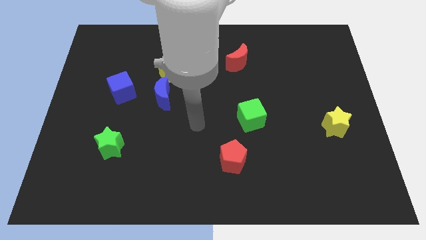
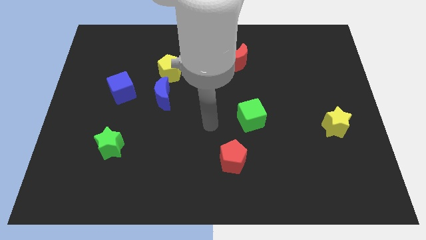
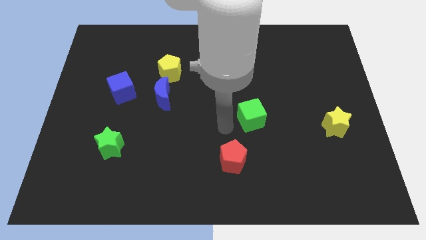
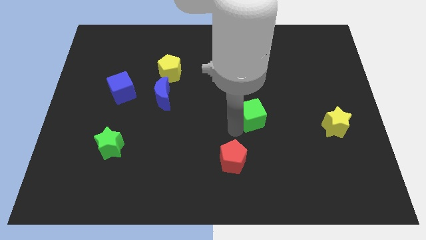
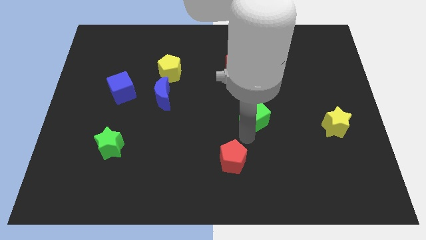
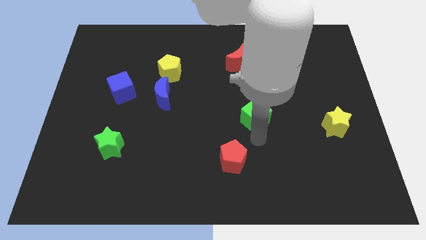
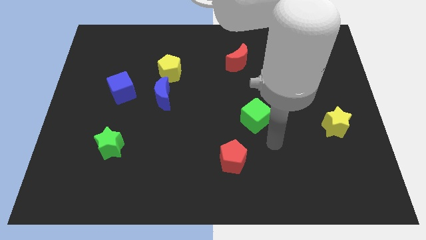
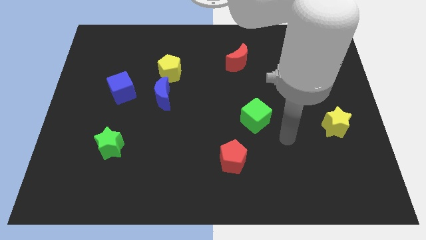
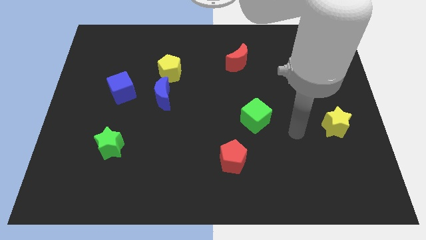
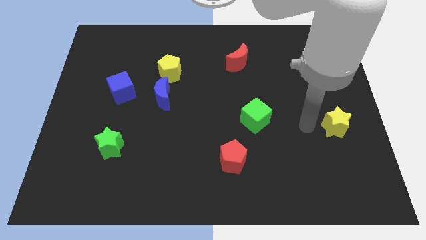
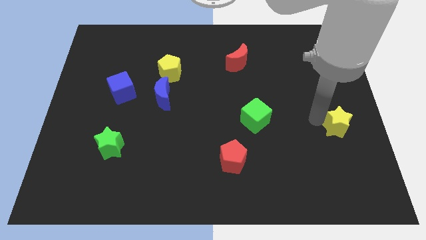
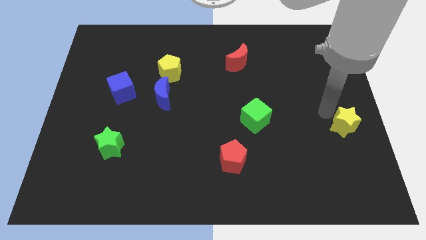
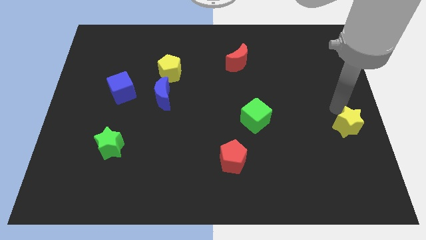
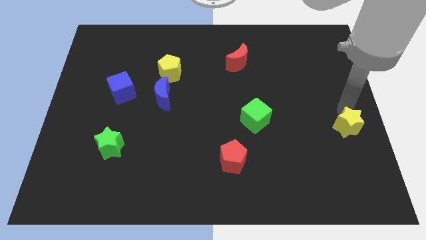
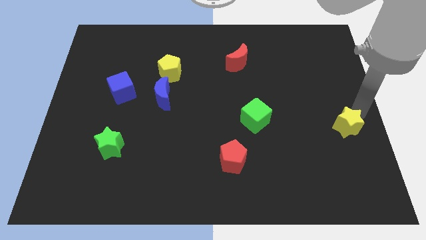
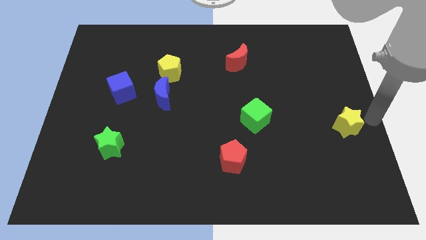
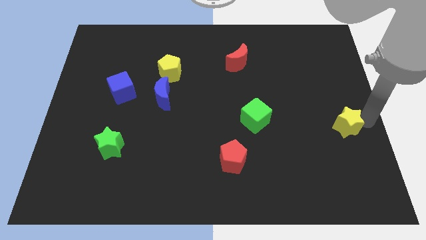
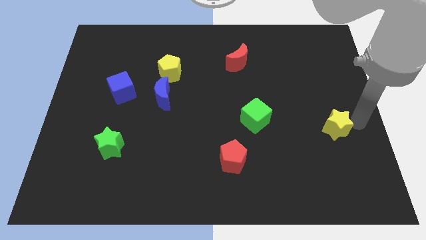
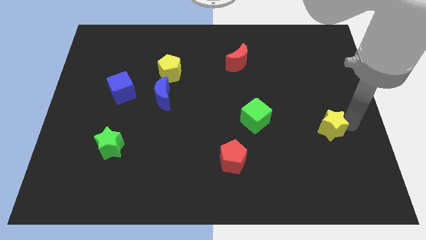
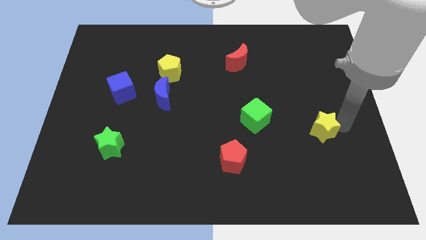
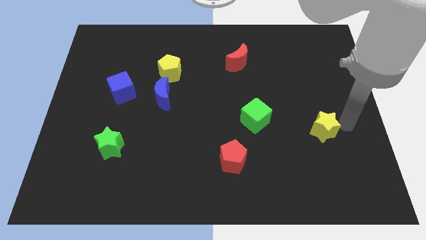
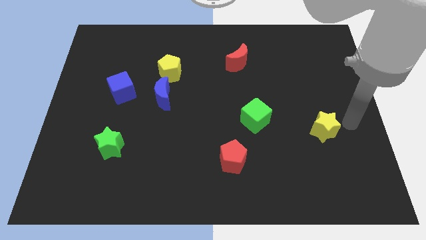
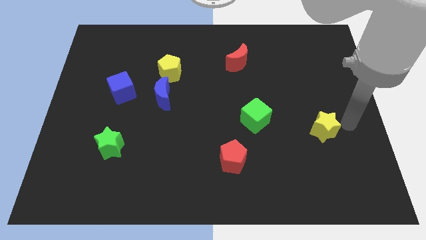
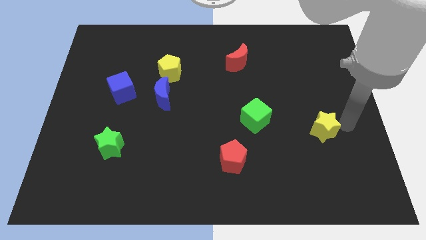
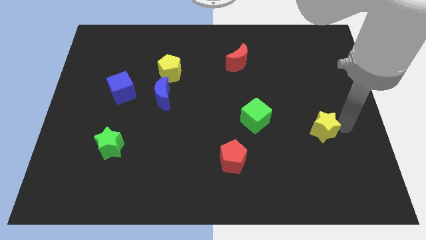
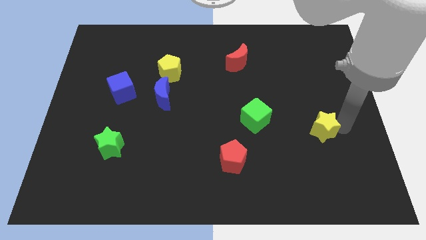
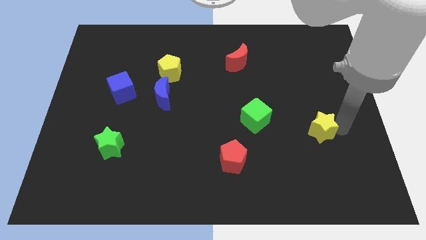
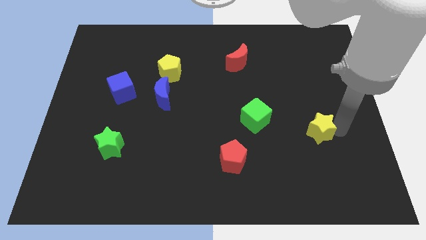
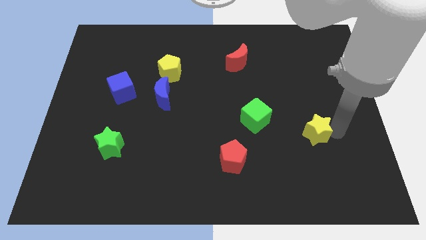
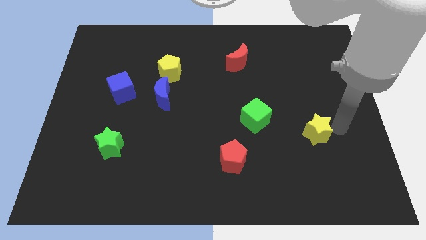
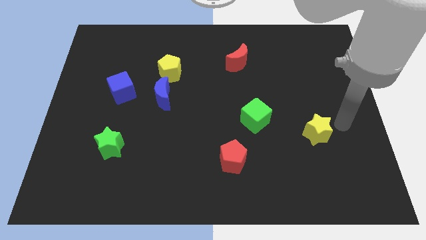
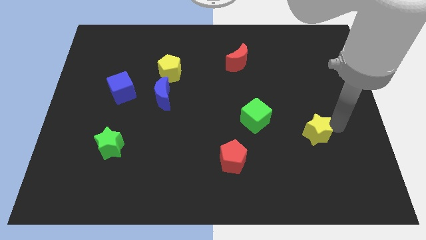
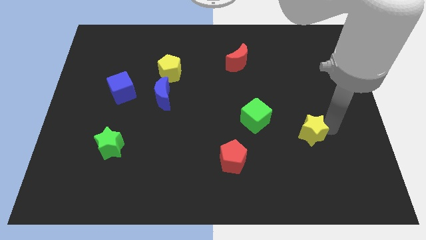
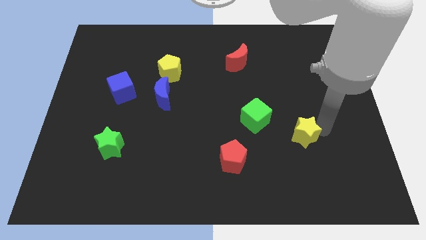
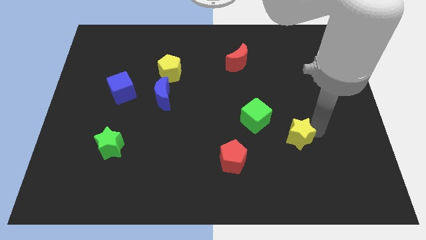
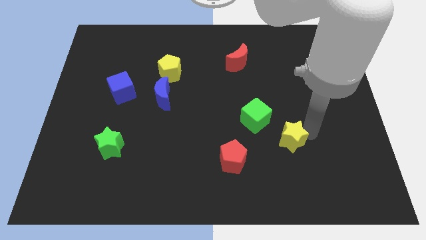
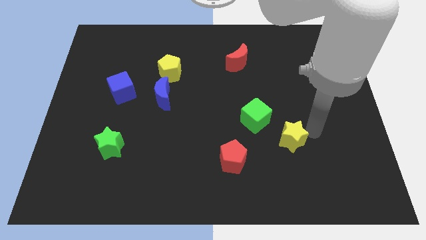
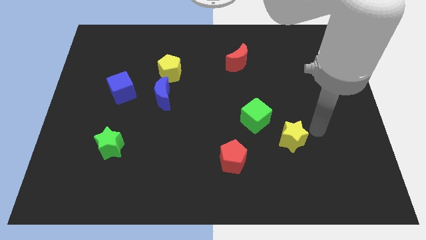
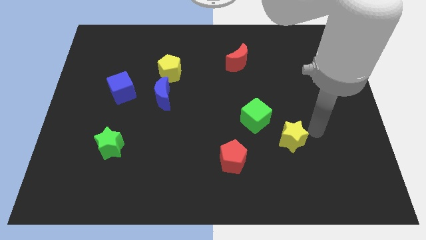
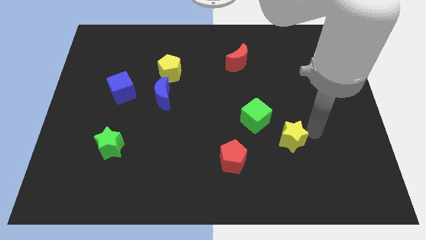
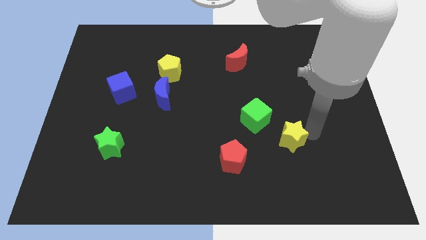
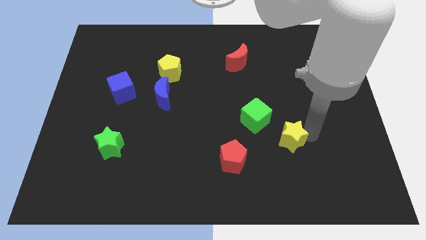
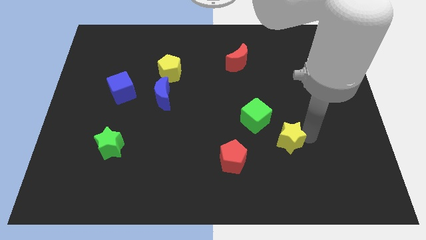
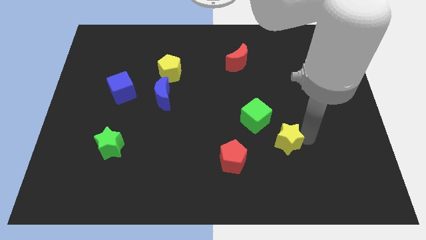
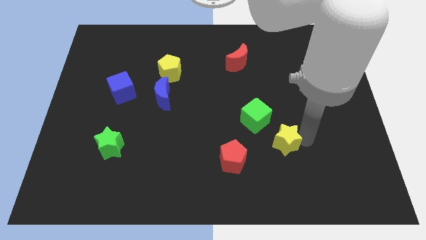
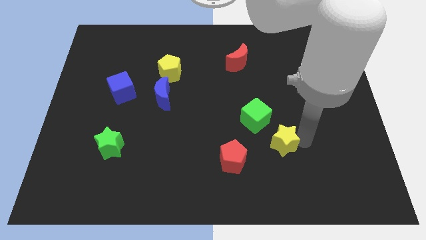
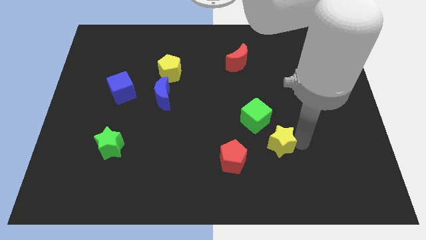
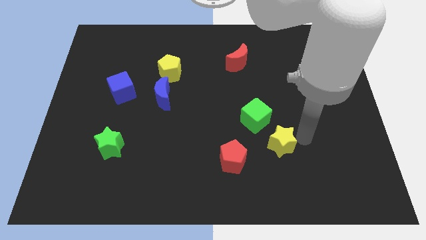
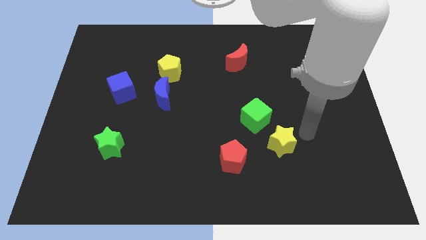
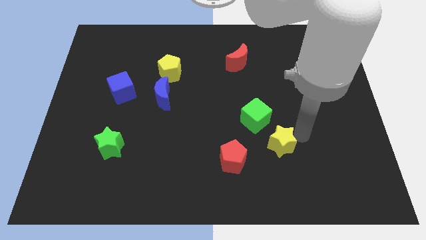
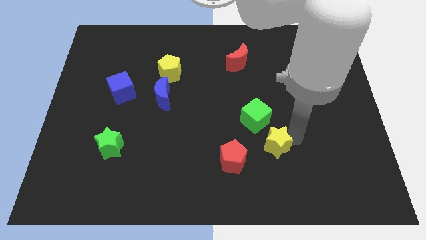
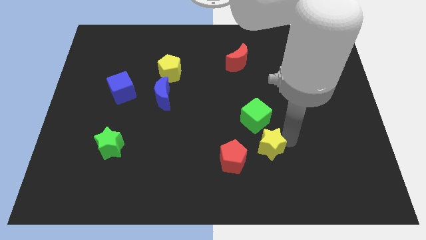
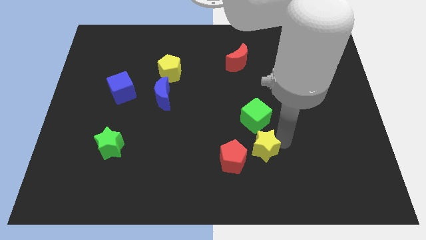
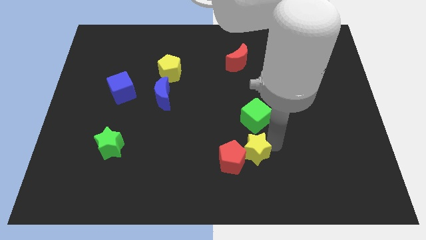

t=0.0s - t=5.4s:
slide the yellow star to the red pentagon

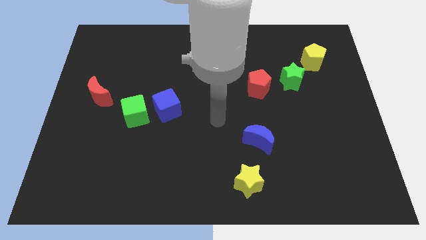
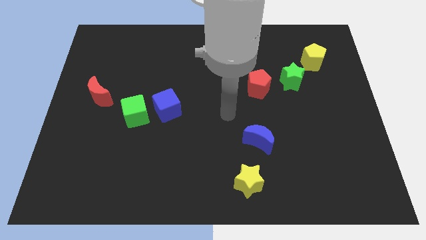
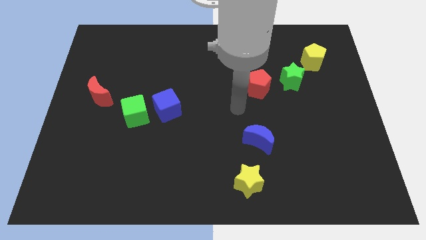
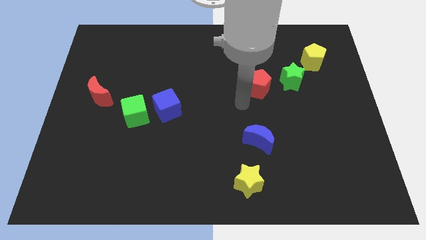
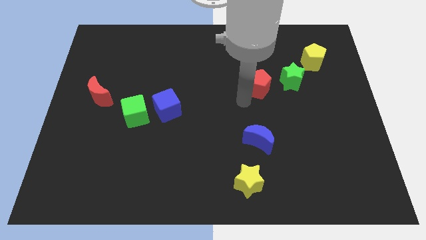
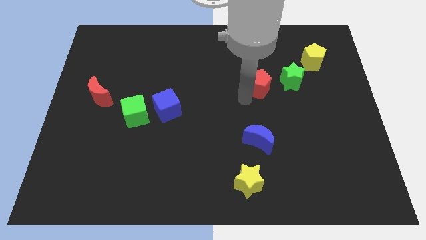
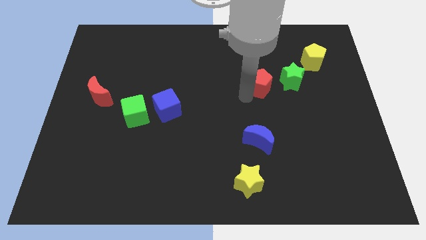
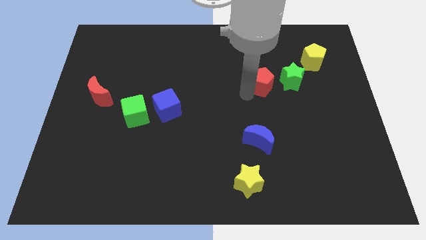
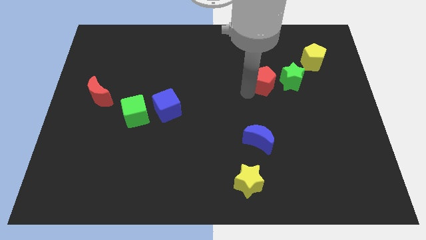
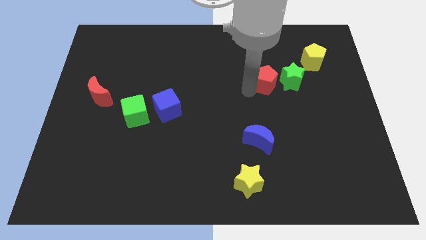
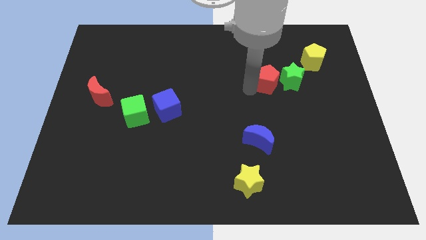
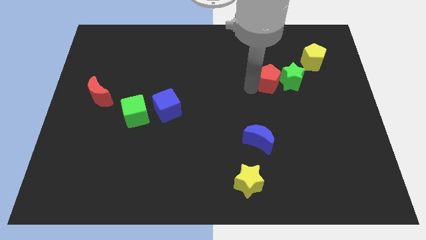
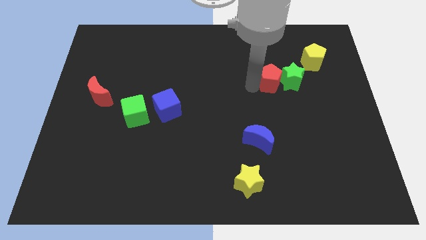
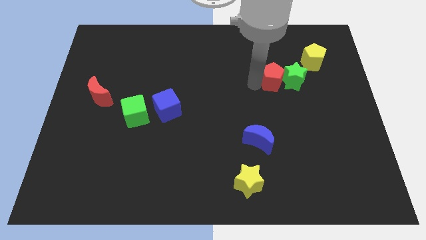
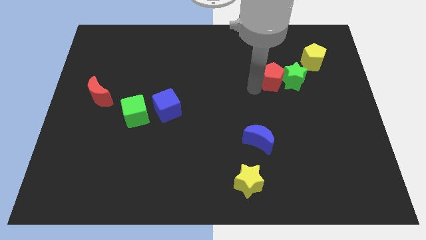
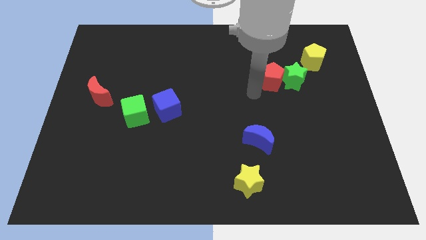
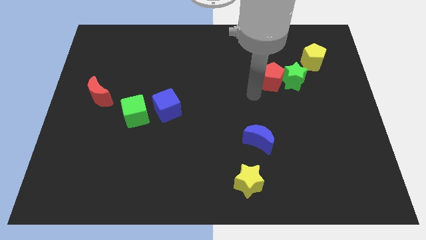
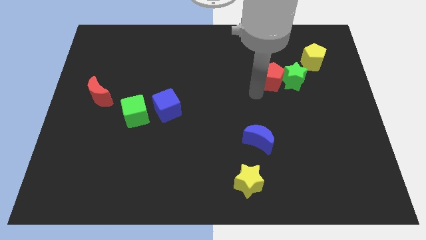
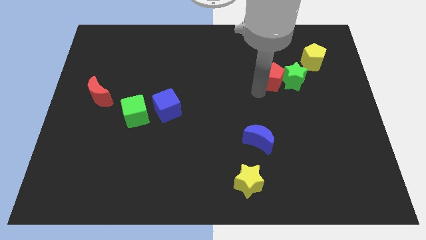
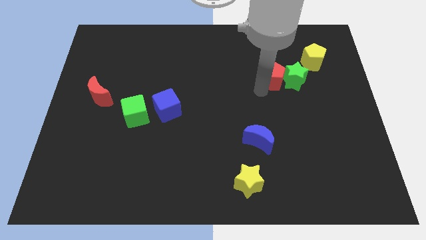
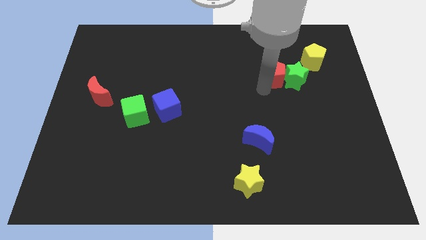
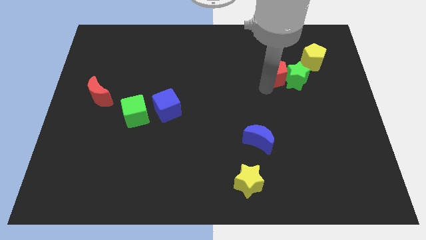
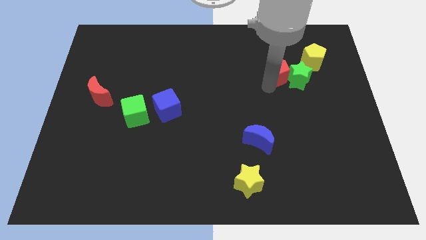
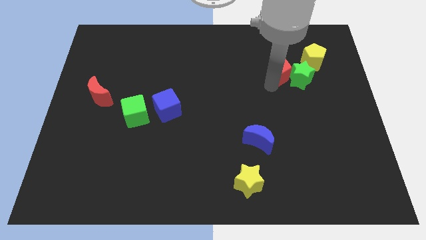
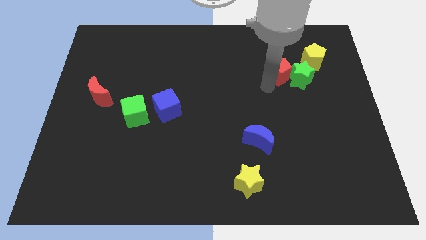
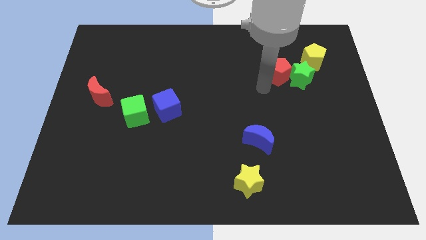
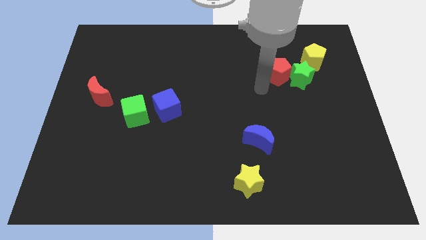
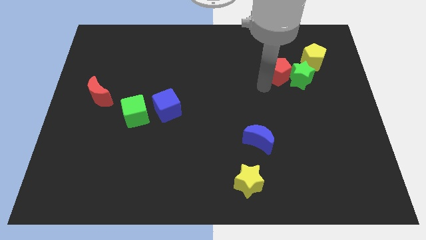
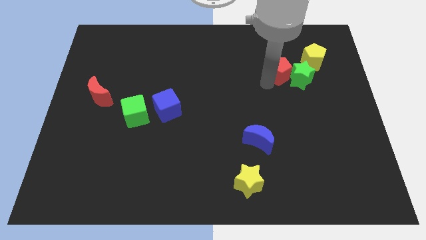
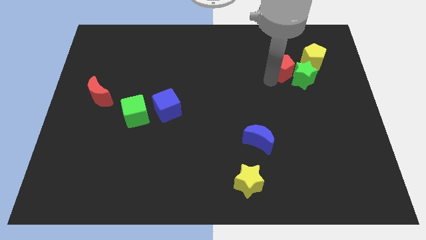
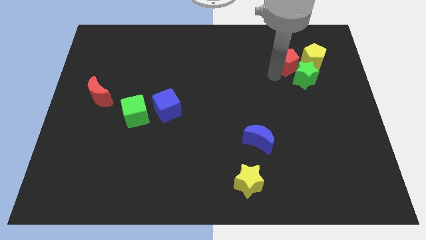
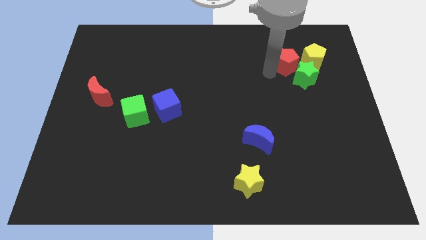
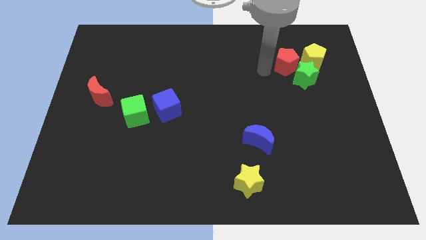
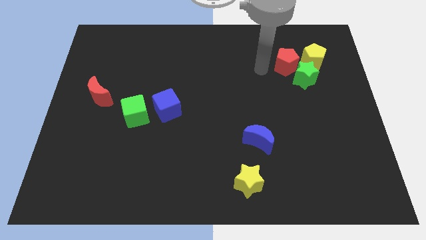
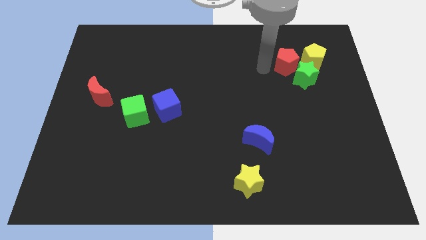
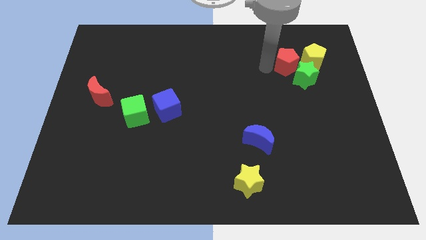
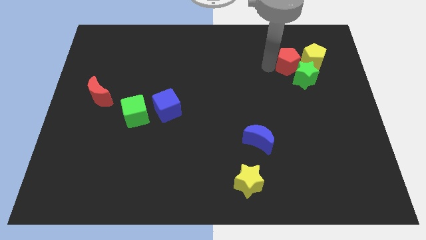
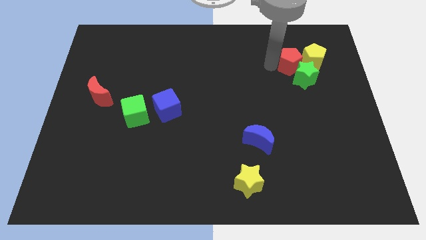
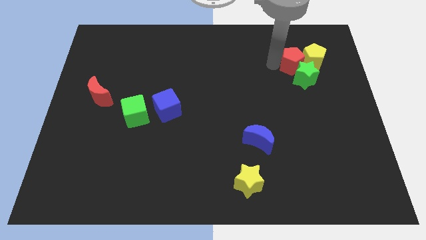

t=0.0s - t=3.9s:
put the red pentagon towards the yellow pentagon
